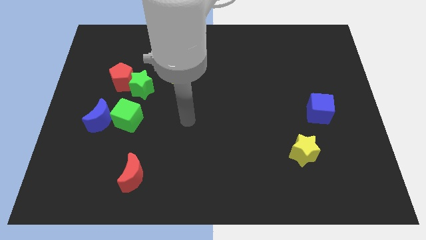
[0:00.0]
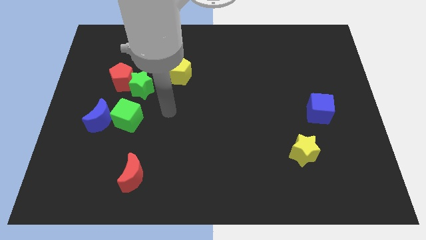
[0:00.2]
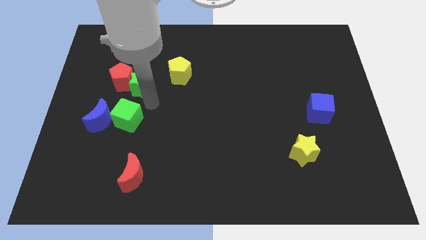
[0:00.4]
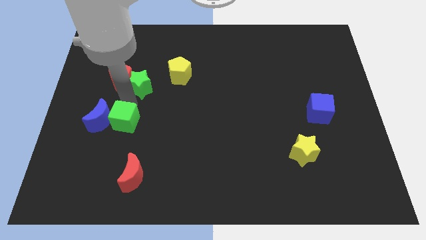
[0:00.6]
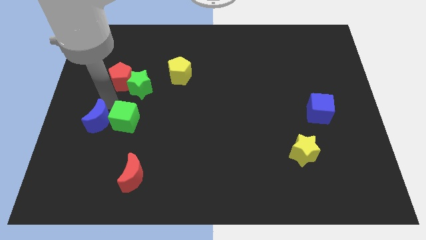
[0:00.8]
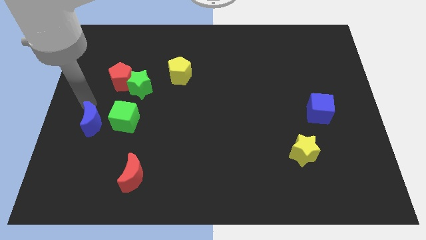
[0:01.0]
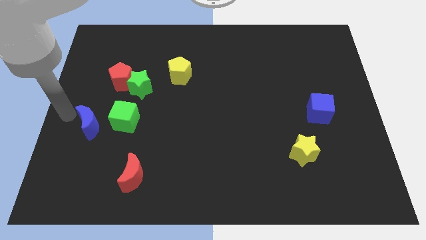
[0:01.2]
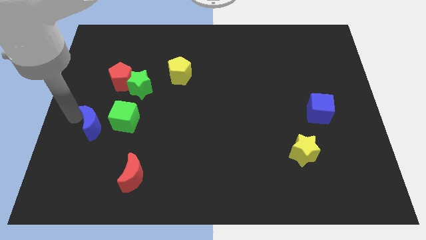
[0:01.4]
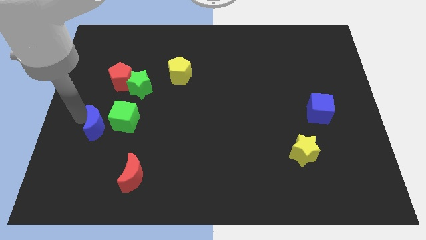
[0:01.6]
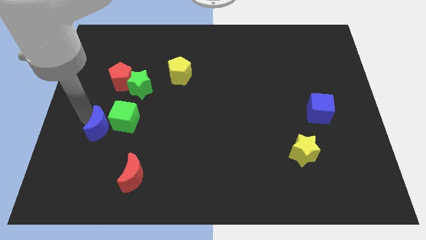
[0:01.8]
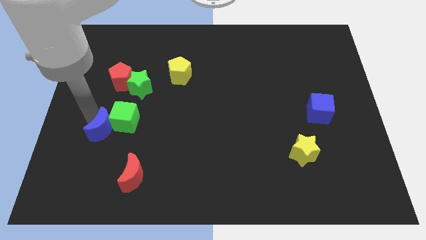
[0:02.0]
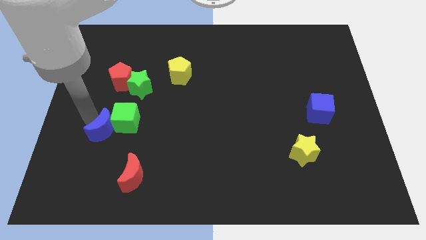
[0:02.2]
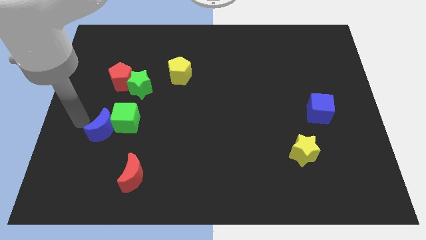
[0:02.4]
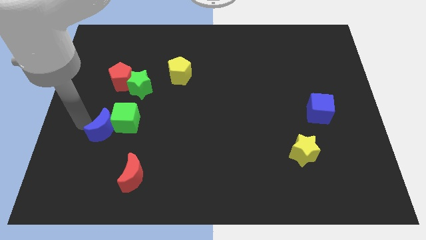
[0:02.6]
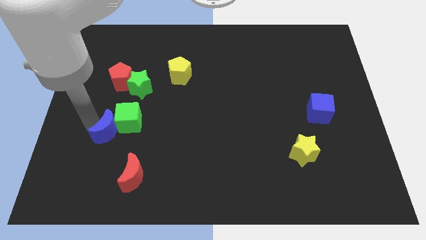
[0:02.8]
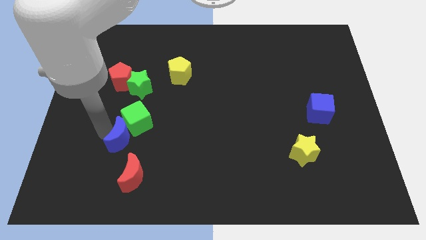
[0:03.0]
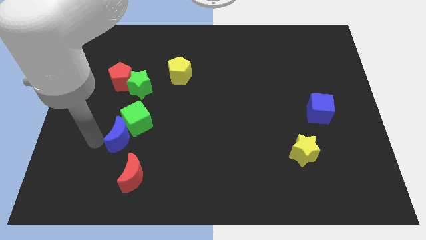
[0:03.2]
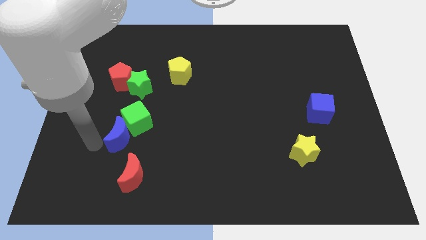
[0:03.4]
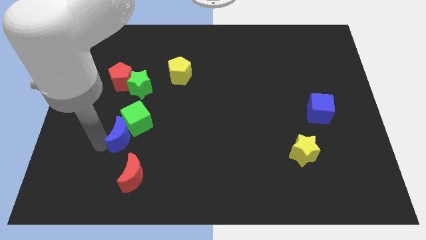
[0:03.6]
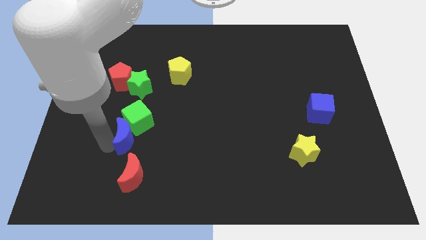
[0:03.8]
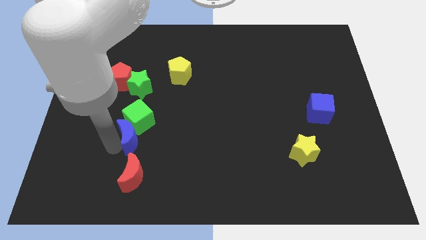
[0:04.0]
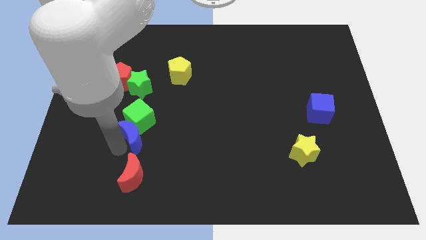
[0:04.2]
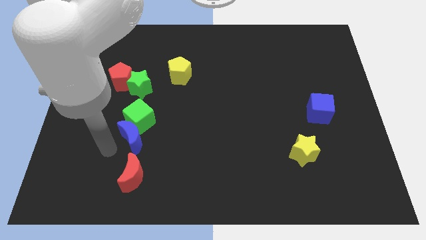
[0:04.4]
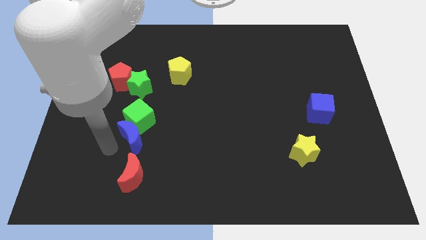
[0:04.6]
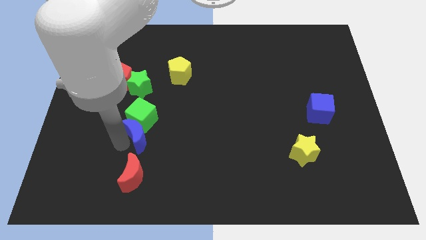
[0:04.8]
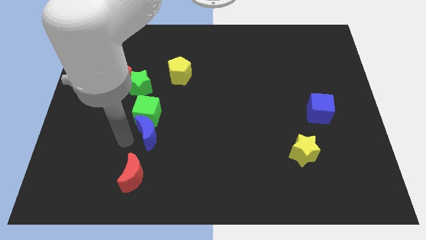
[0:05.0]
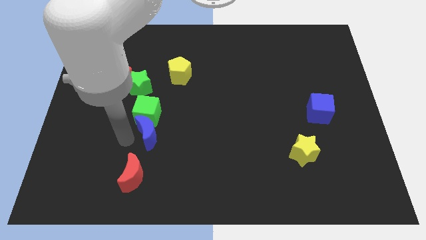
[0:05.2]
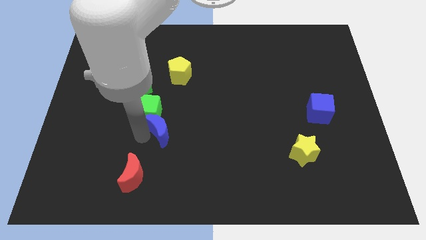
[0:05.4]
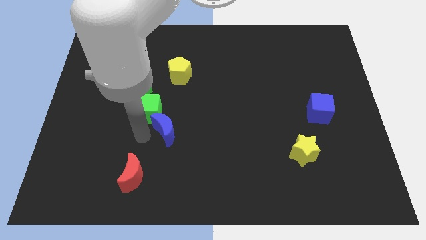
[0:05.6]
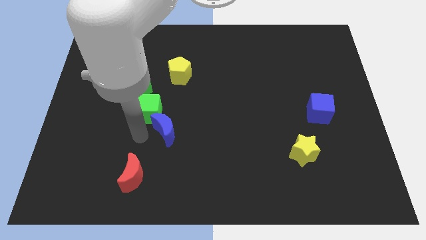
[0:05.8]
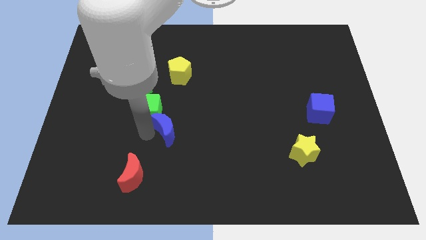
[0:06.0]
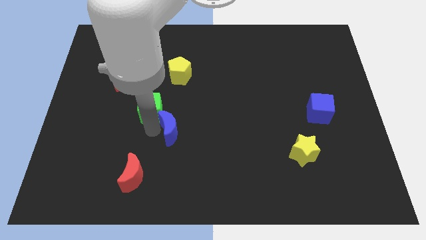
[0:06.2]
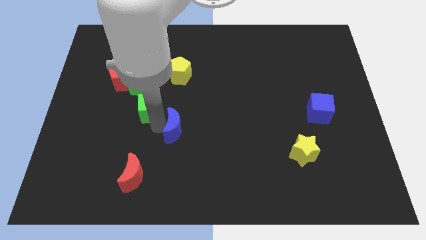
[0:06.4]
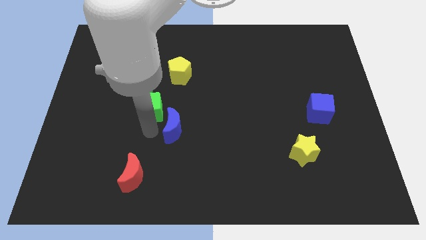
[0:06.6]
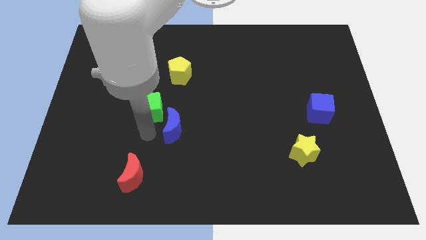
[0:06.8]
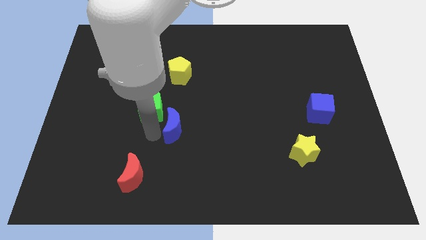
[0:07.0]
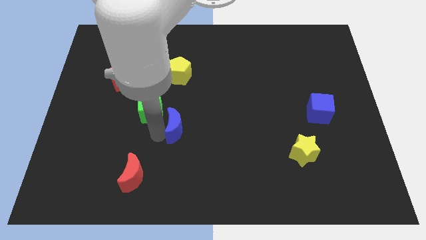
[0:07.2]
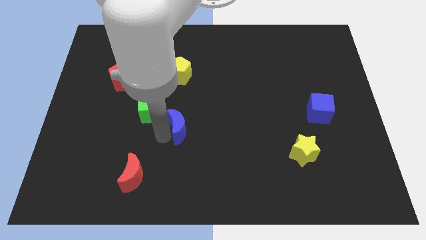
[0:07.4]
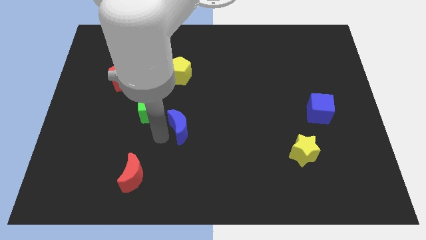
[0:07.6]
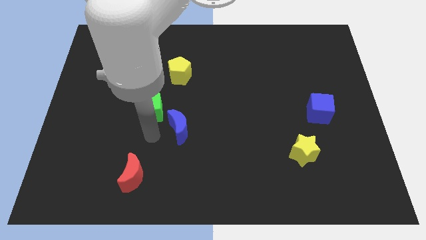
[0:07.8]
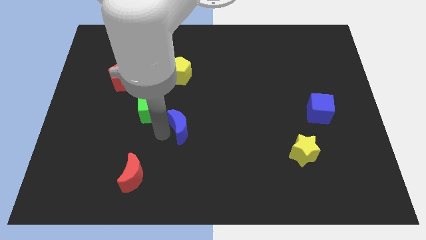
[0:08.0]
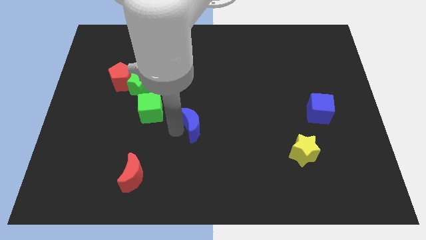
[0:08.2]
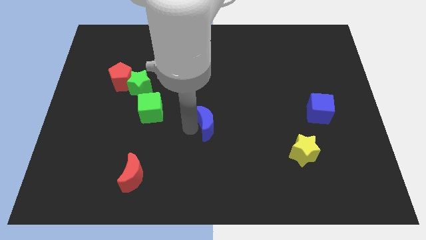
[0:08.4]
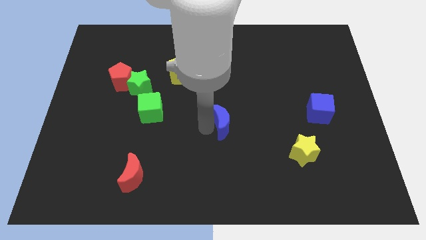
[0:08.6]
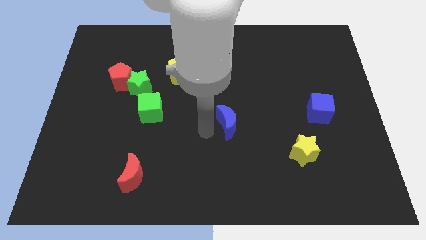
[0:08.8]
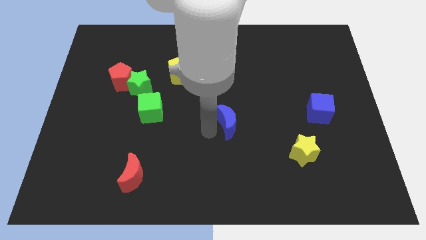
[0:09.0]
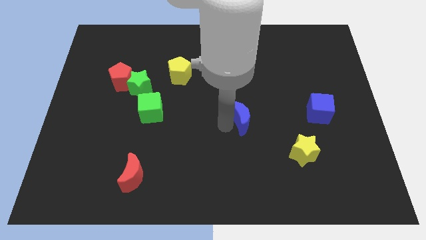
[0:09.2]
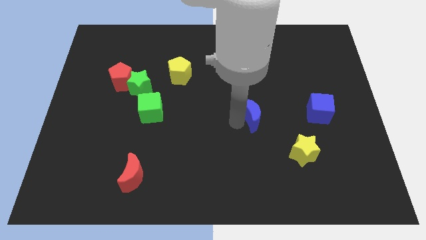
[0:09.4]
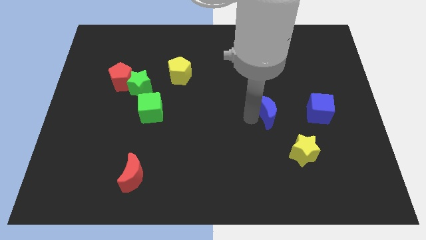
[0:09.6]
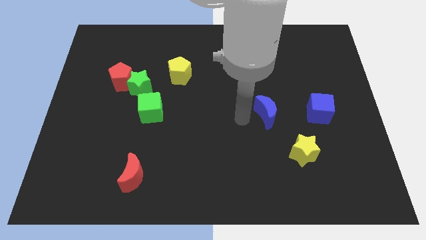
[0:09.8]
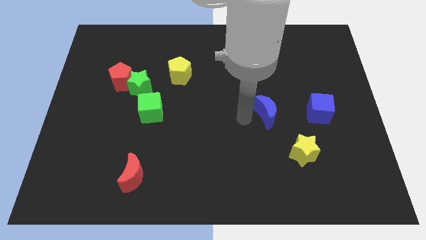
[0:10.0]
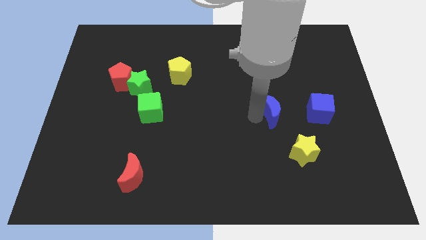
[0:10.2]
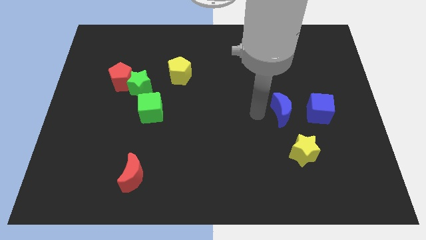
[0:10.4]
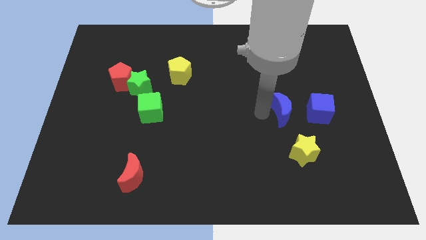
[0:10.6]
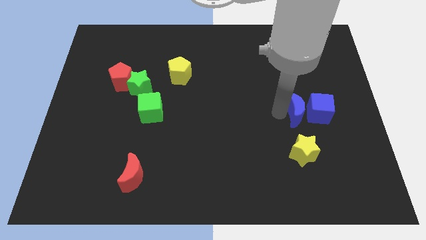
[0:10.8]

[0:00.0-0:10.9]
move the blue moon towards the blue cube

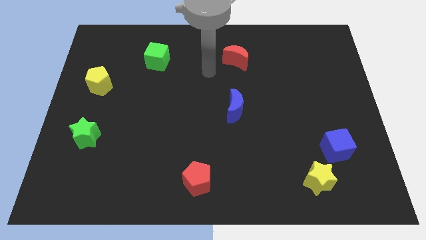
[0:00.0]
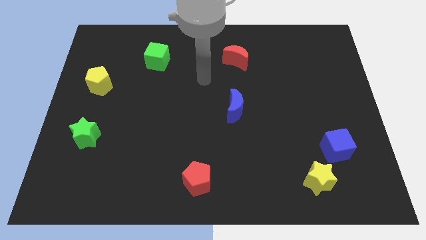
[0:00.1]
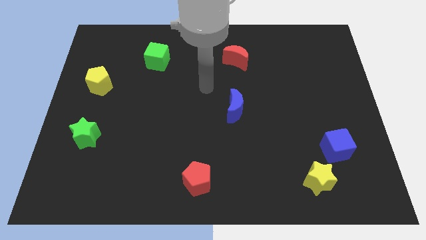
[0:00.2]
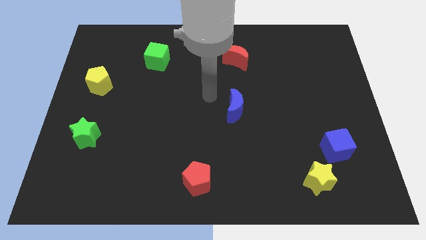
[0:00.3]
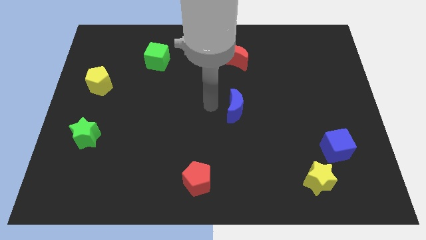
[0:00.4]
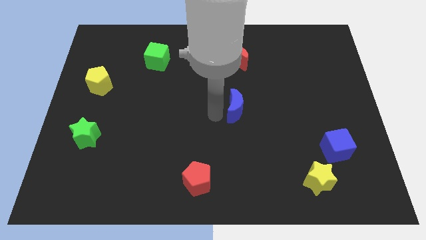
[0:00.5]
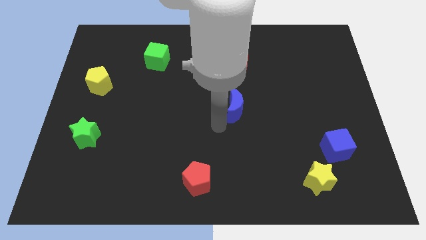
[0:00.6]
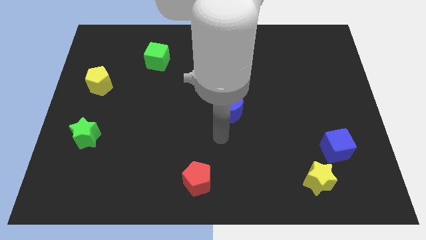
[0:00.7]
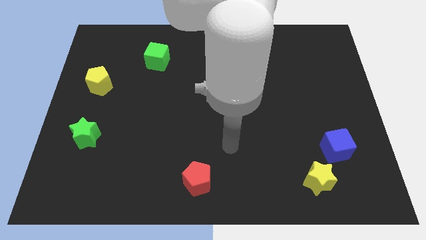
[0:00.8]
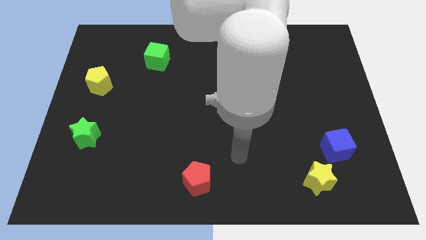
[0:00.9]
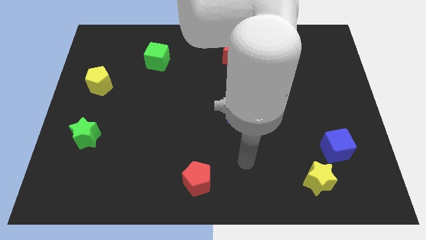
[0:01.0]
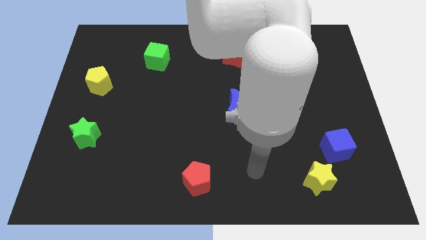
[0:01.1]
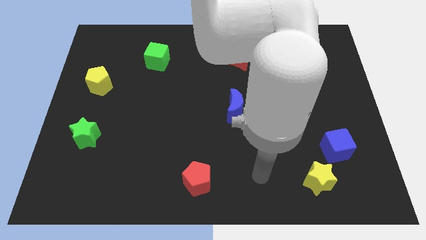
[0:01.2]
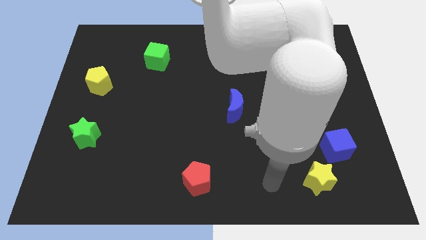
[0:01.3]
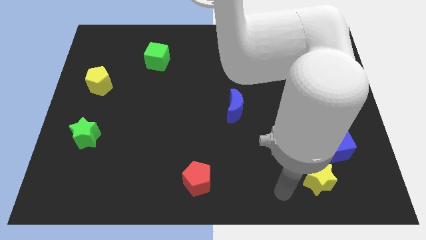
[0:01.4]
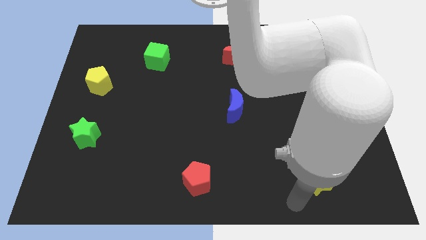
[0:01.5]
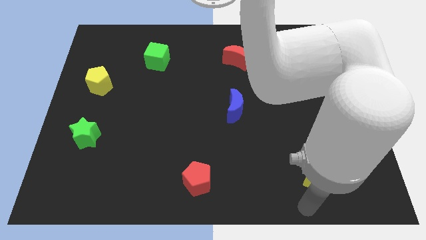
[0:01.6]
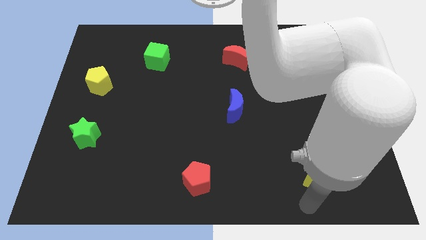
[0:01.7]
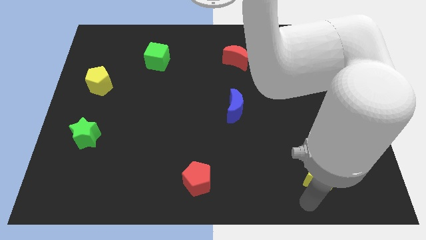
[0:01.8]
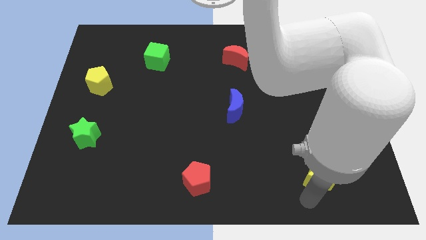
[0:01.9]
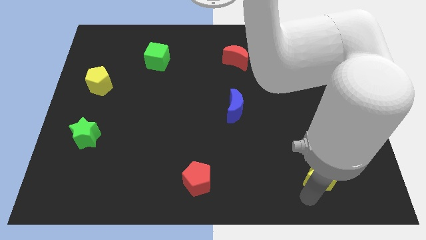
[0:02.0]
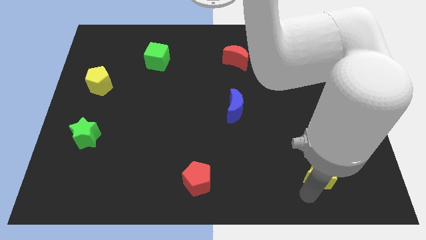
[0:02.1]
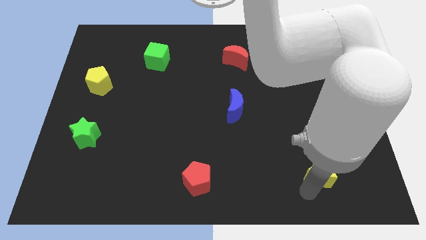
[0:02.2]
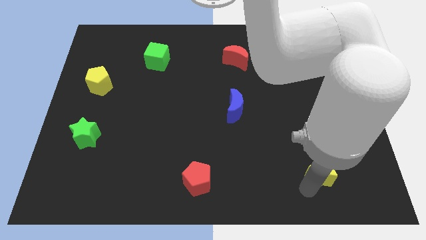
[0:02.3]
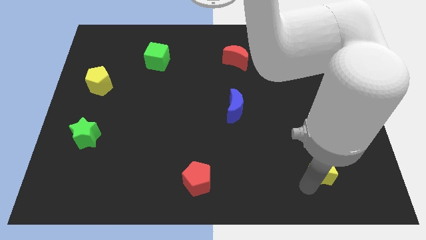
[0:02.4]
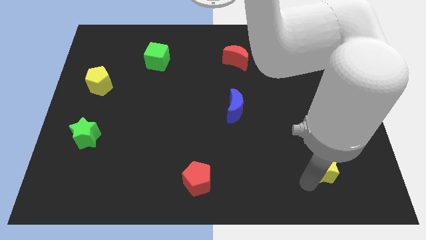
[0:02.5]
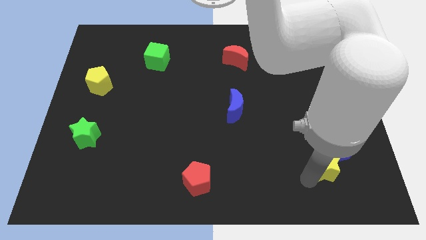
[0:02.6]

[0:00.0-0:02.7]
put the yellow star close to the blue cube
